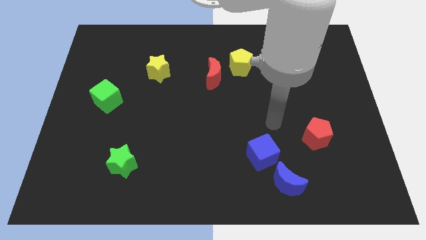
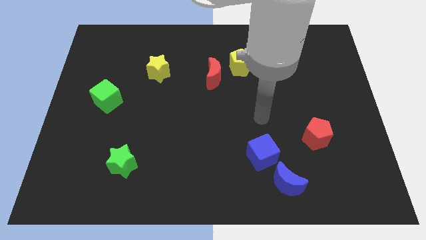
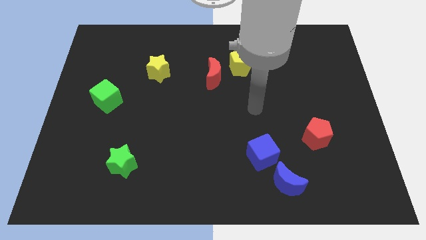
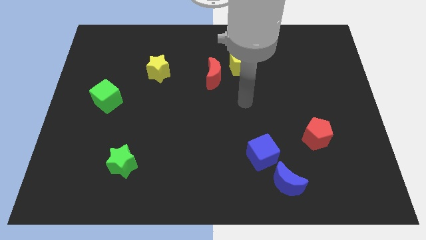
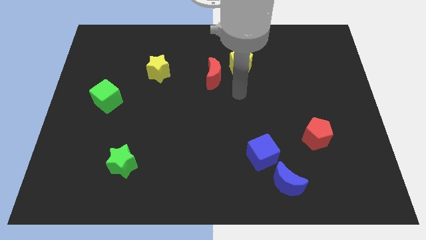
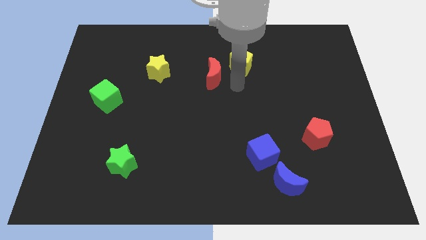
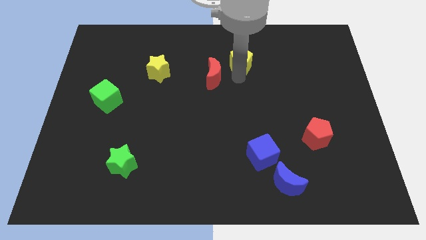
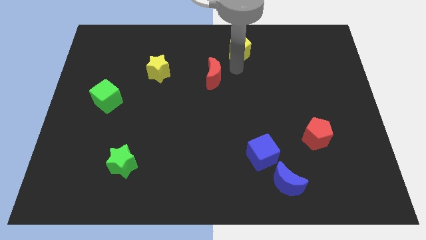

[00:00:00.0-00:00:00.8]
pull the red moon apart from the yellow pentagon

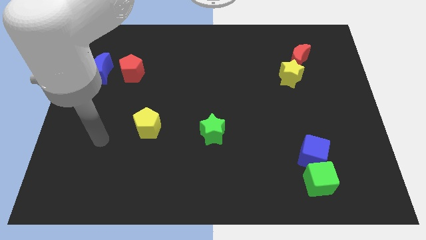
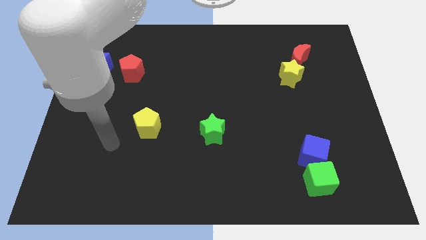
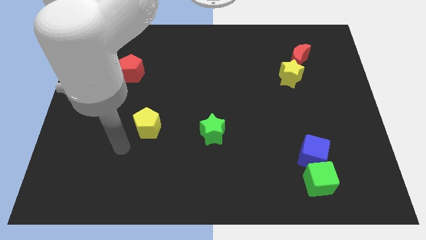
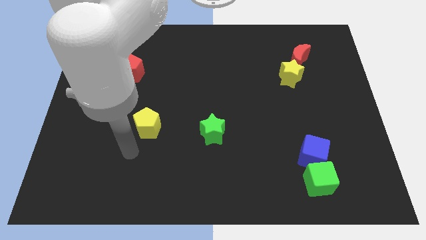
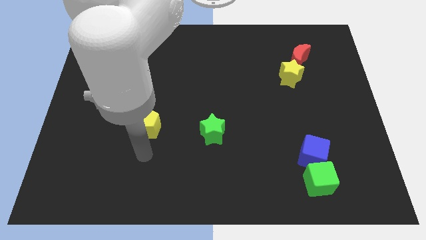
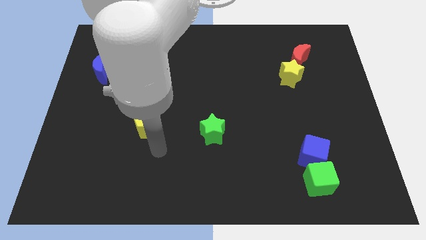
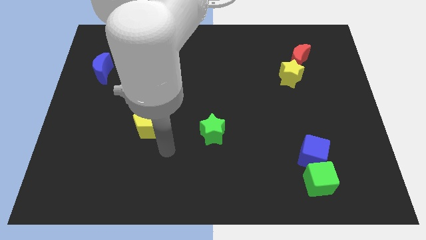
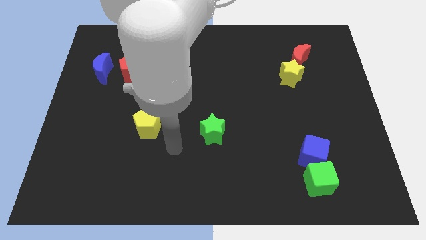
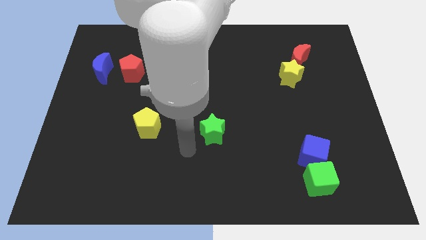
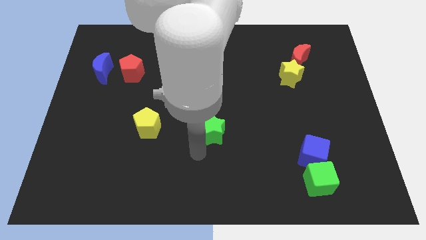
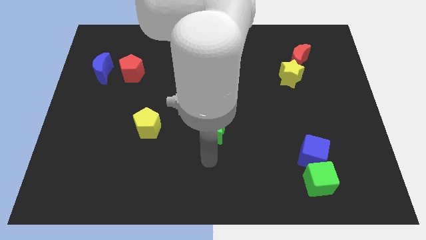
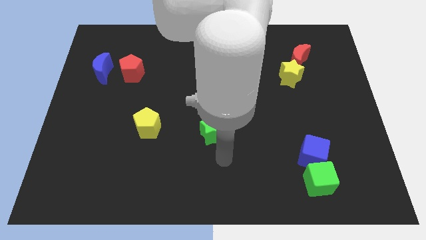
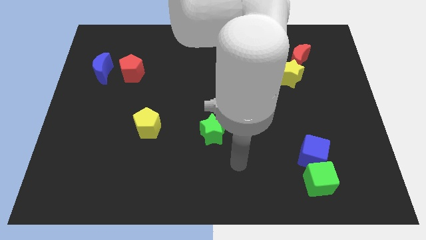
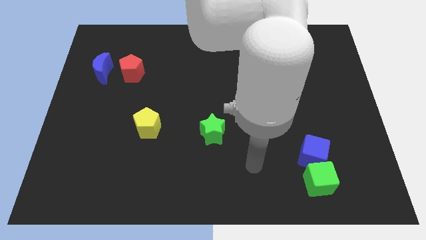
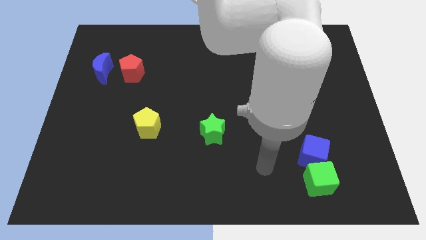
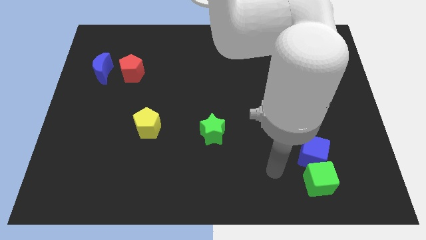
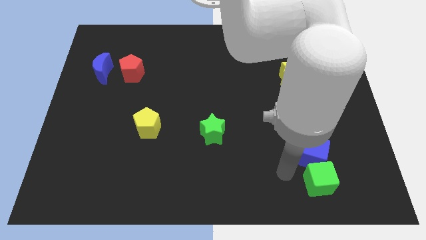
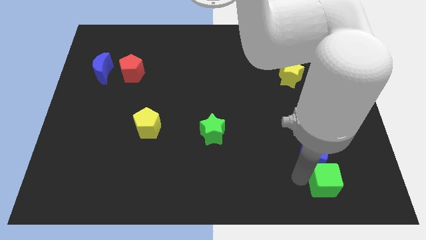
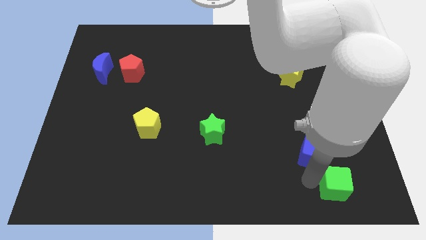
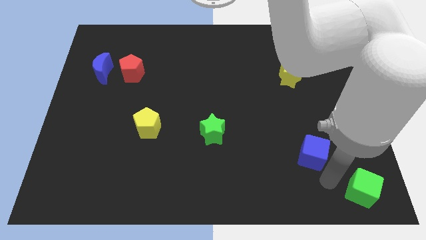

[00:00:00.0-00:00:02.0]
pull the blue cube apart from the green cube

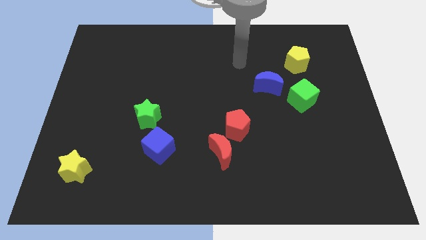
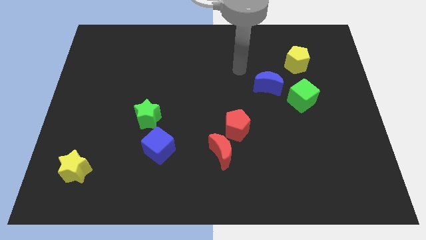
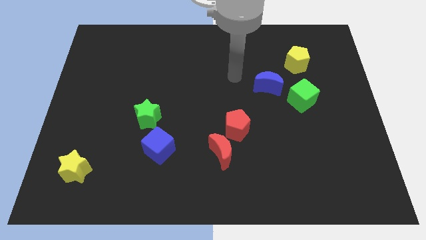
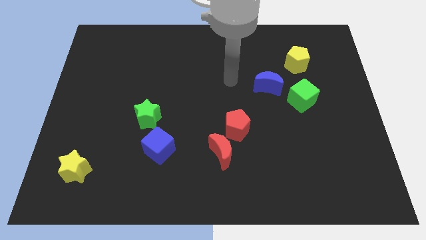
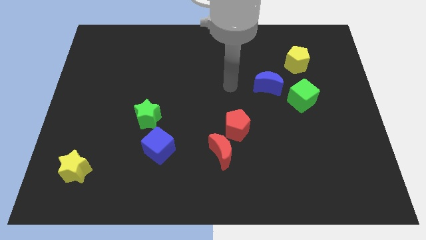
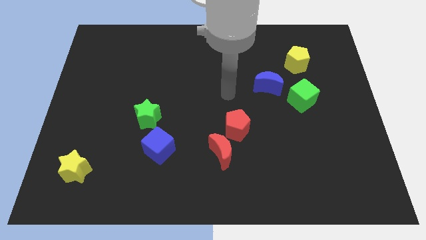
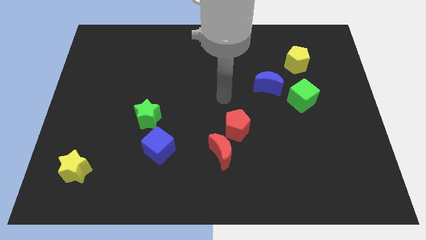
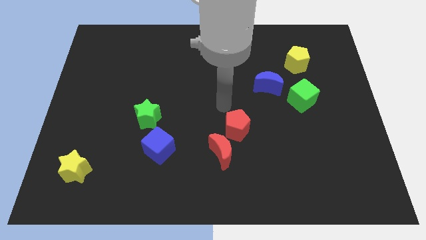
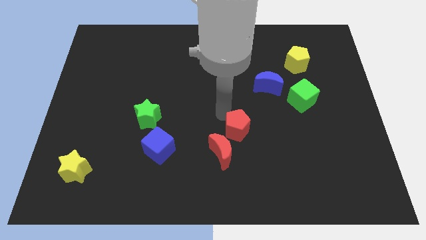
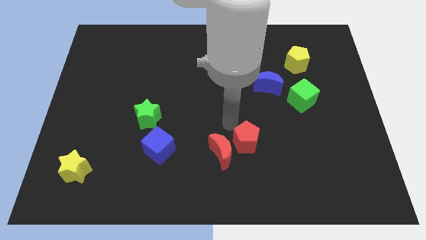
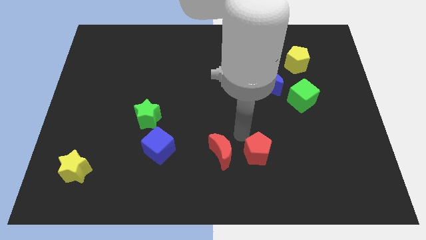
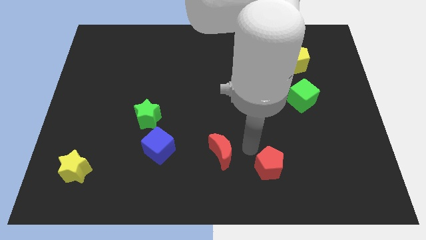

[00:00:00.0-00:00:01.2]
pull the red moon apart from the red pentagon

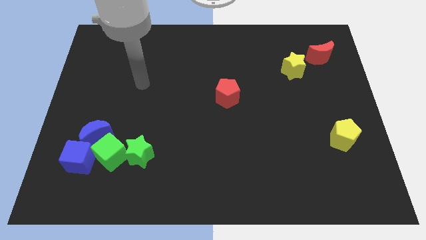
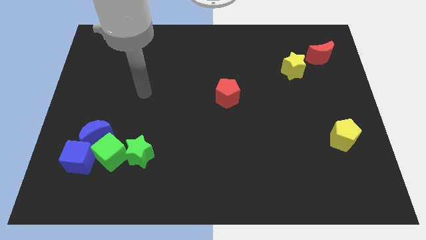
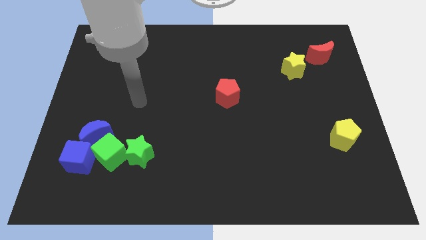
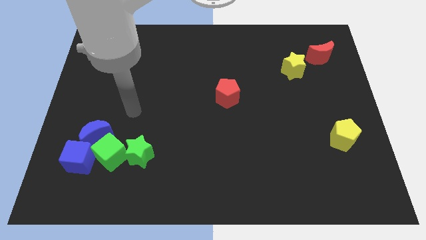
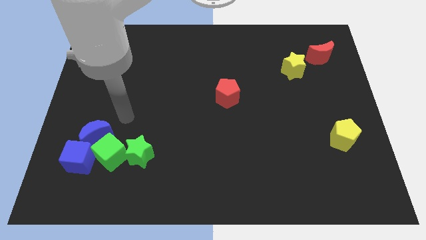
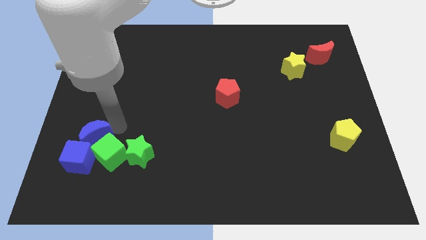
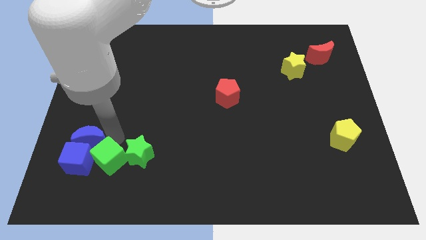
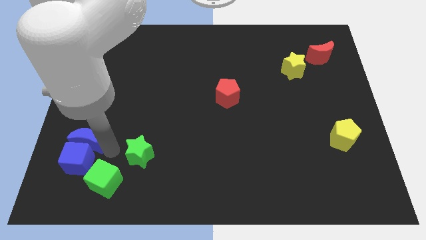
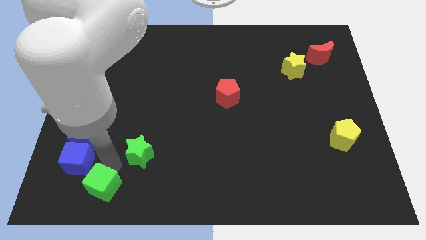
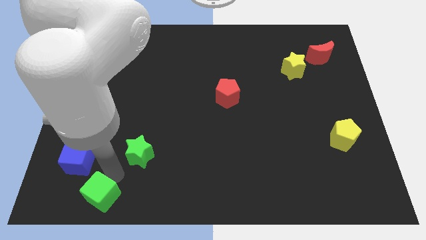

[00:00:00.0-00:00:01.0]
move the green star away from the green cube

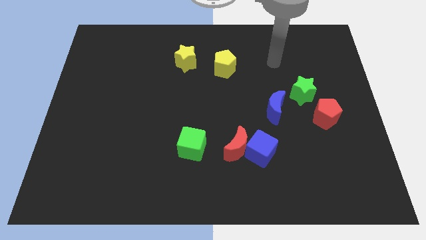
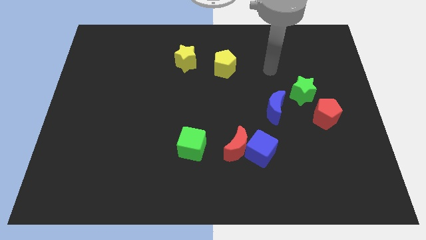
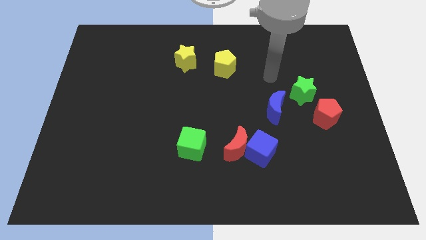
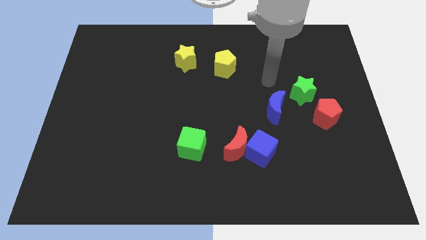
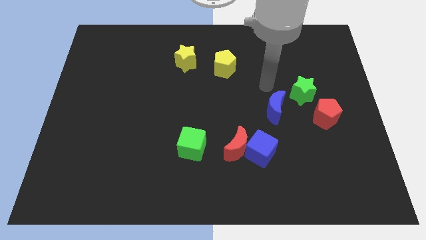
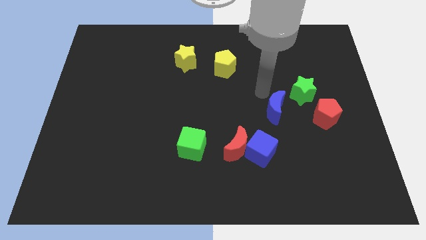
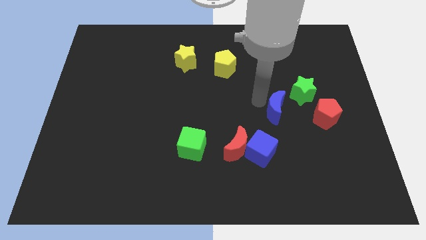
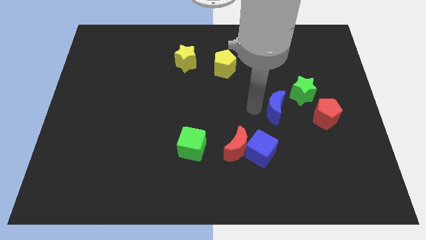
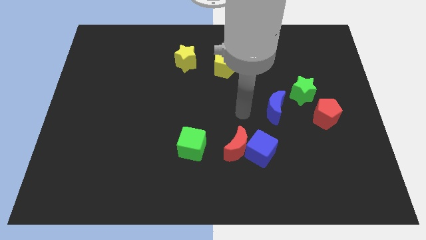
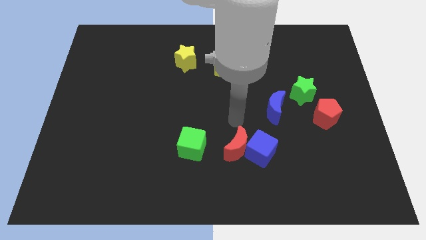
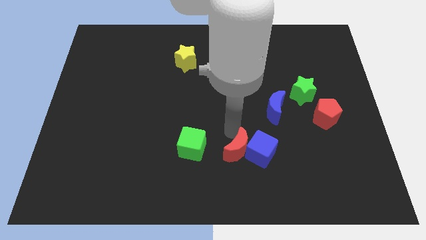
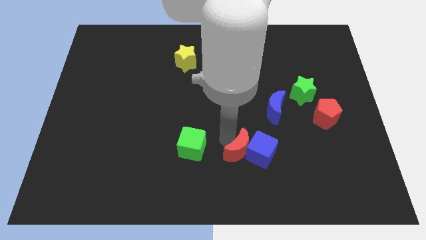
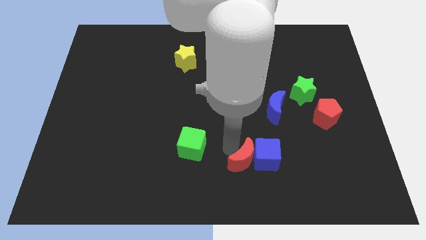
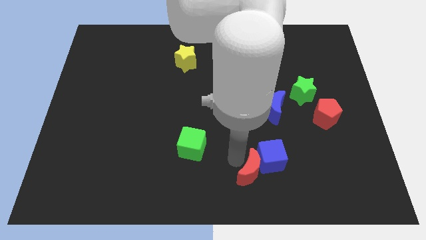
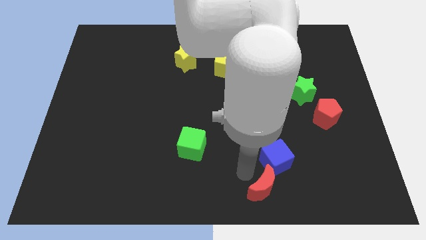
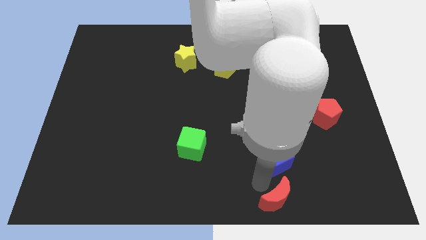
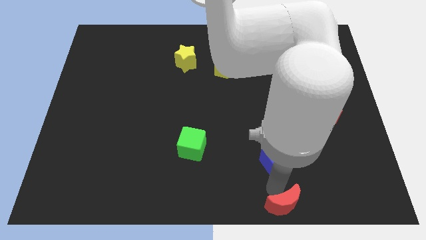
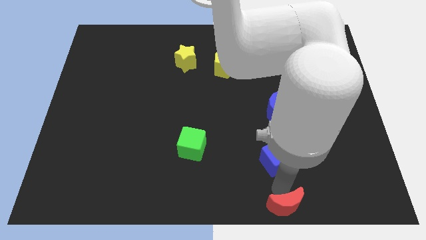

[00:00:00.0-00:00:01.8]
move the blue cube away from the red moon

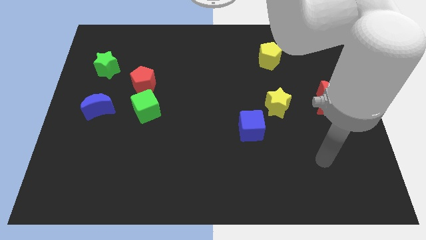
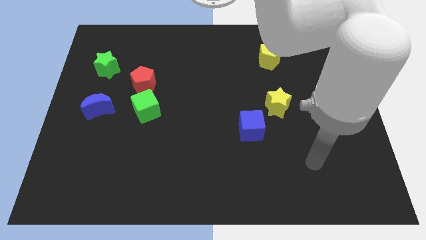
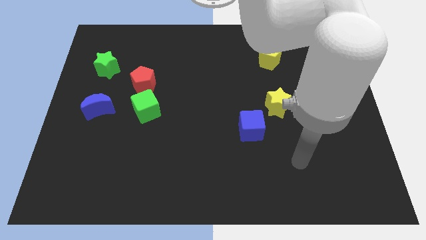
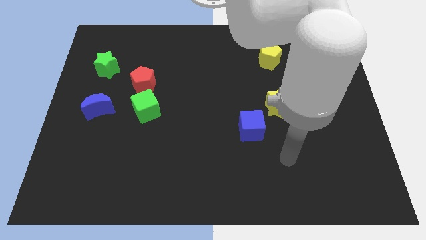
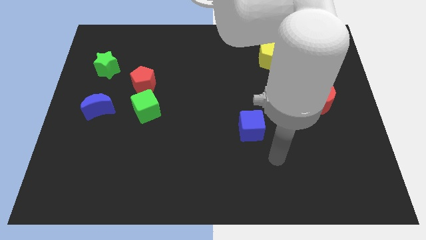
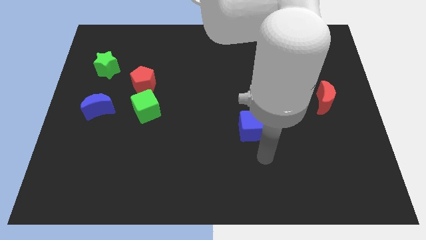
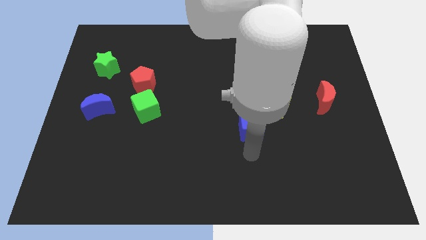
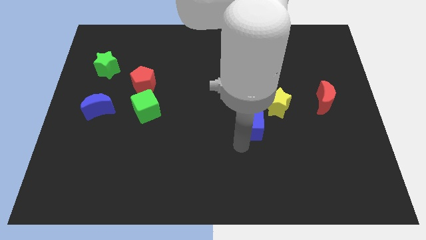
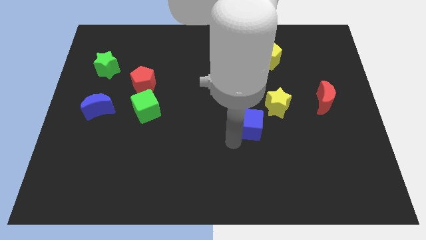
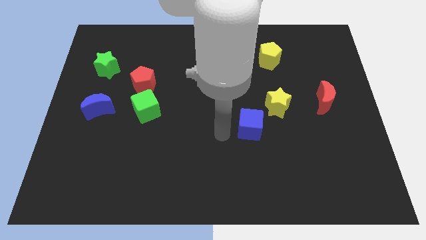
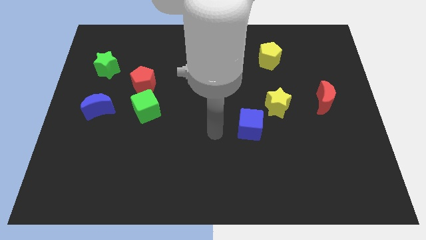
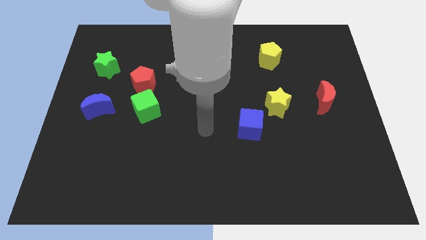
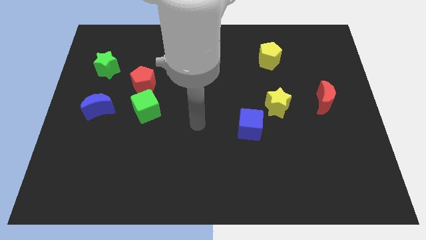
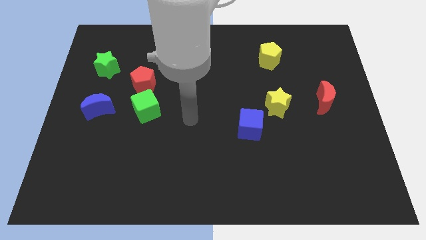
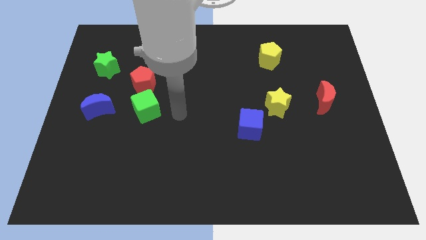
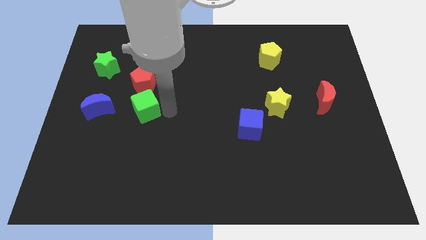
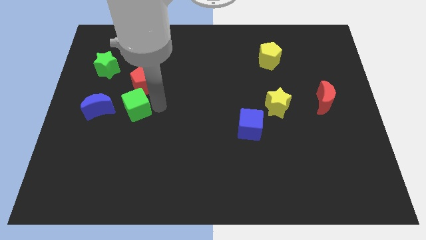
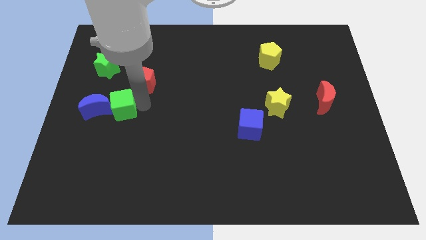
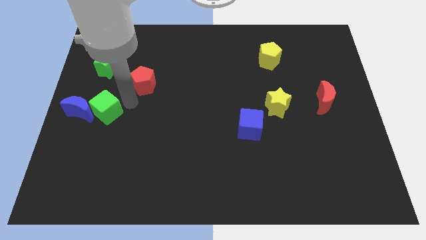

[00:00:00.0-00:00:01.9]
separate the red pentagon from the green cube

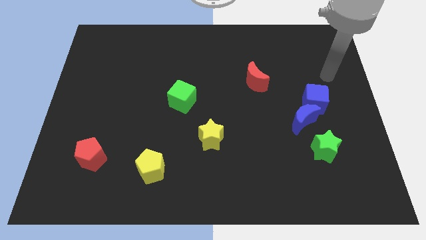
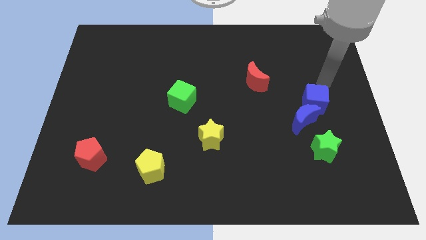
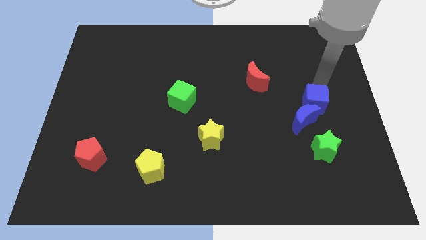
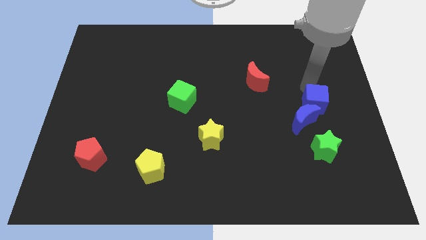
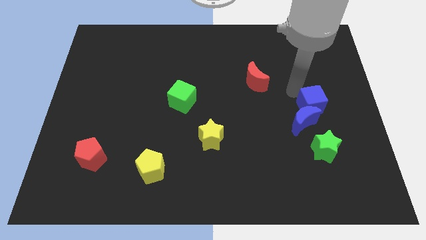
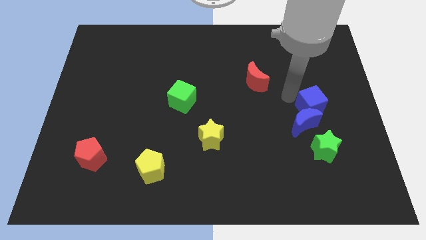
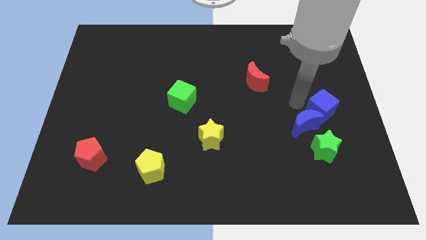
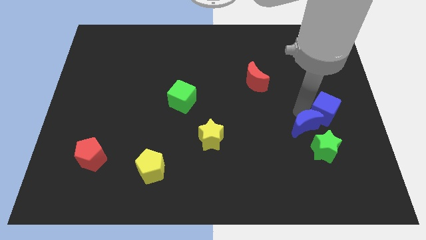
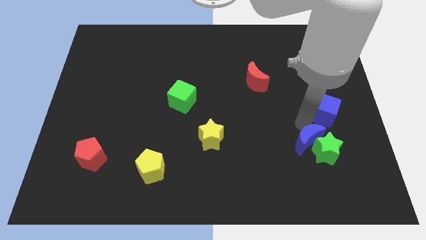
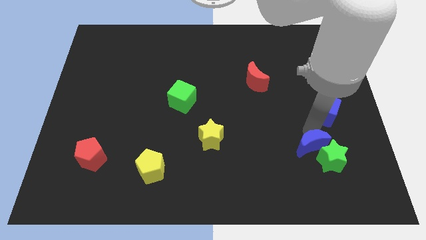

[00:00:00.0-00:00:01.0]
separate the blue cube from the blue moon
